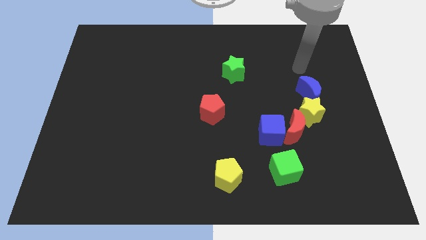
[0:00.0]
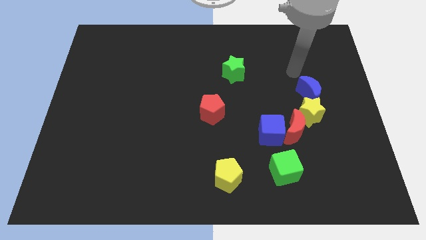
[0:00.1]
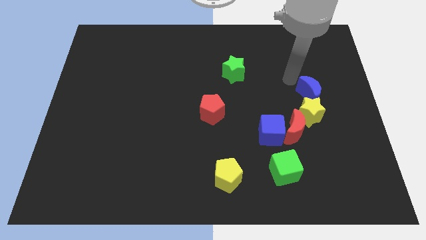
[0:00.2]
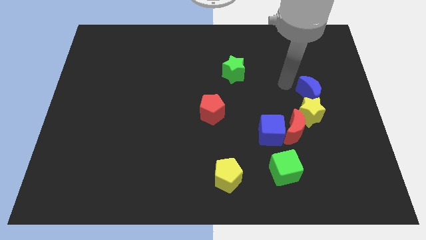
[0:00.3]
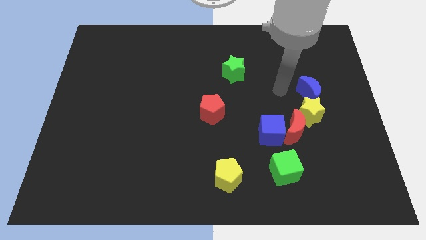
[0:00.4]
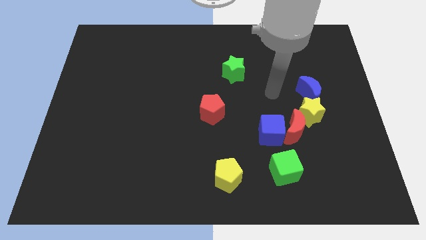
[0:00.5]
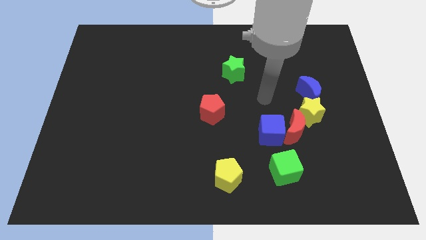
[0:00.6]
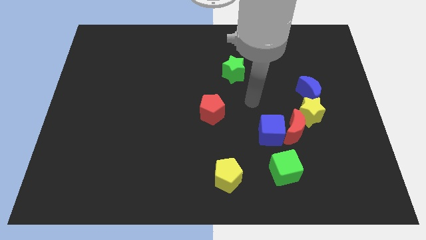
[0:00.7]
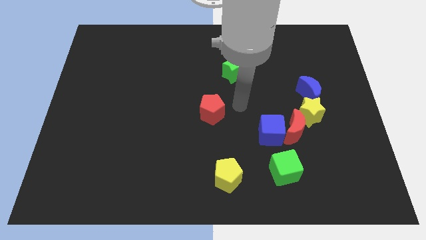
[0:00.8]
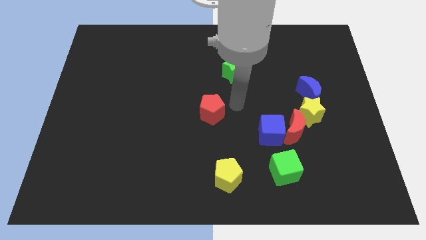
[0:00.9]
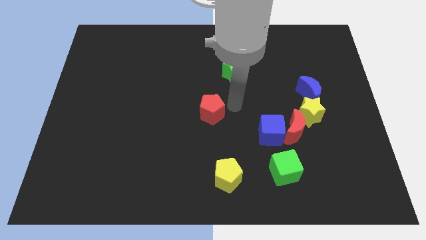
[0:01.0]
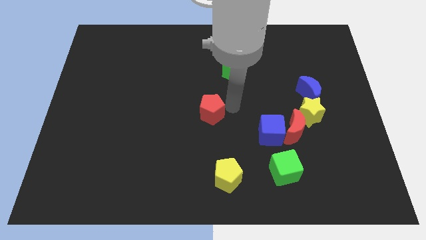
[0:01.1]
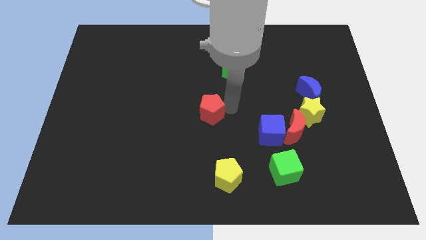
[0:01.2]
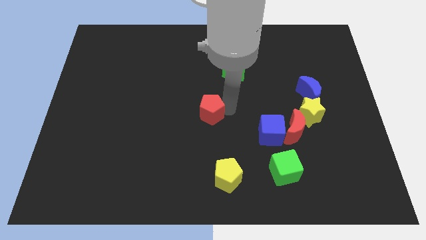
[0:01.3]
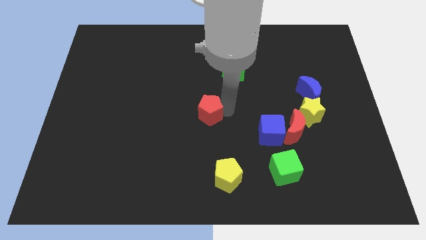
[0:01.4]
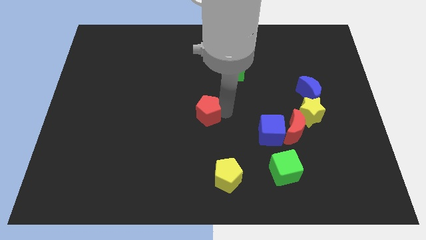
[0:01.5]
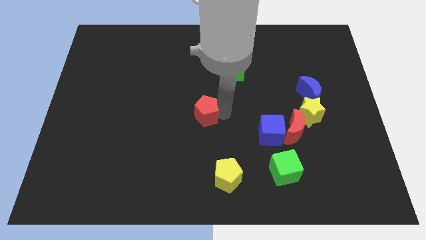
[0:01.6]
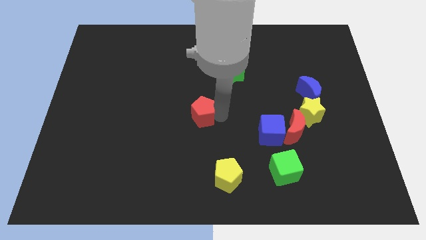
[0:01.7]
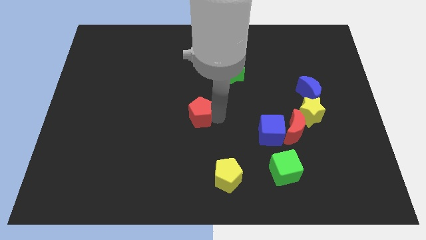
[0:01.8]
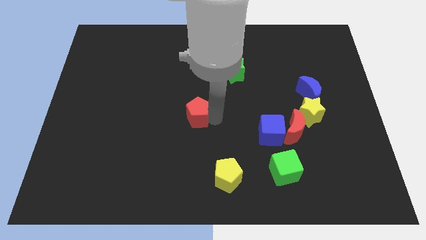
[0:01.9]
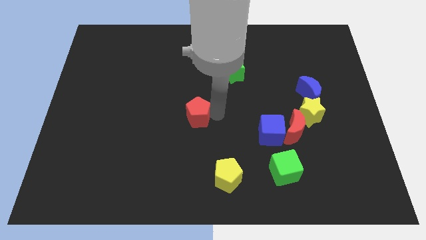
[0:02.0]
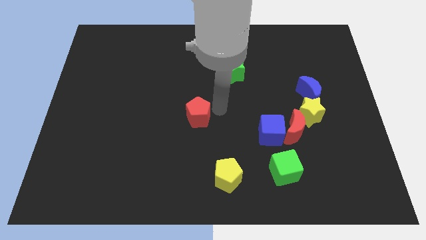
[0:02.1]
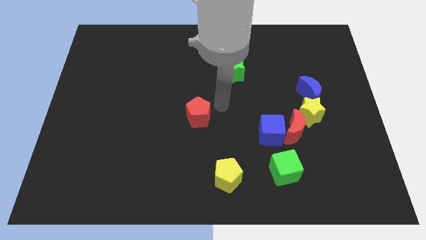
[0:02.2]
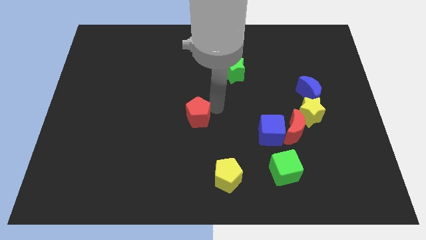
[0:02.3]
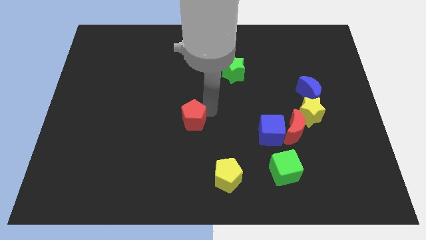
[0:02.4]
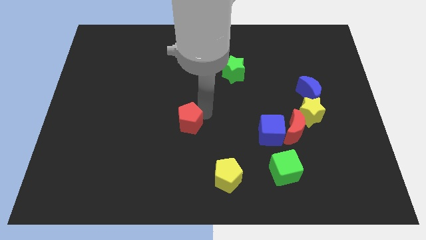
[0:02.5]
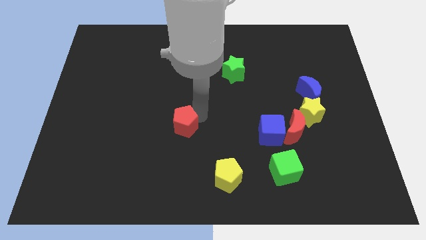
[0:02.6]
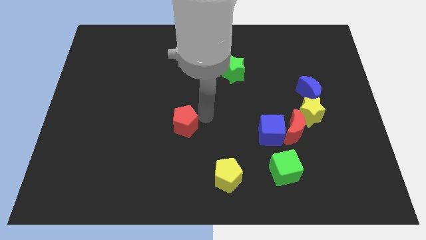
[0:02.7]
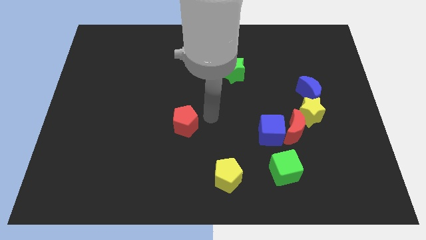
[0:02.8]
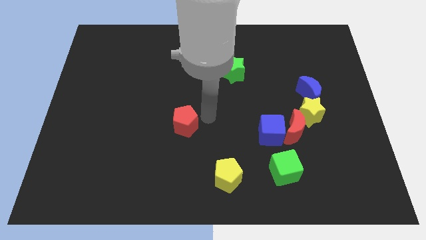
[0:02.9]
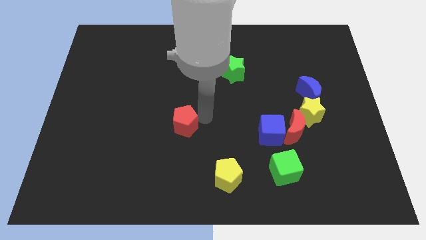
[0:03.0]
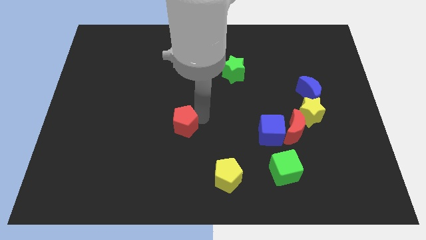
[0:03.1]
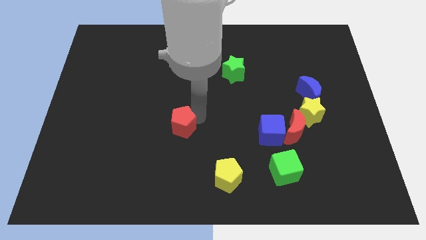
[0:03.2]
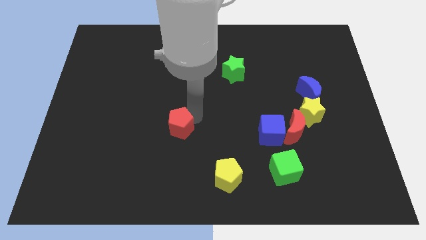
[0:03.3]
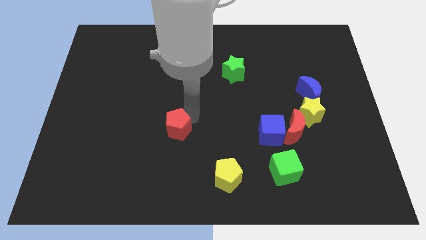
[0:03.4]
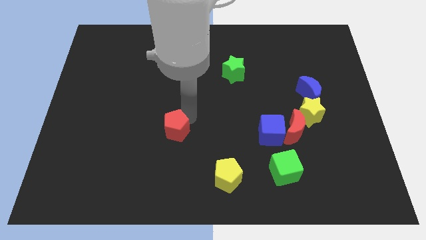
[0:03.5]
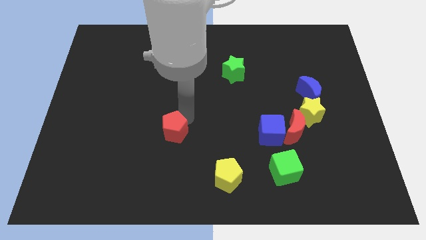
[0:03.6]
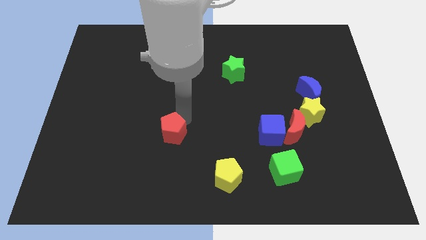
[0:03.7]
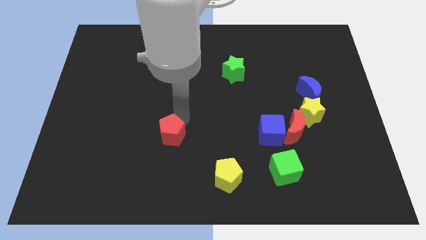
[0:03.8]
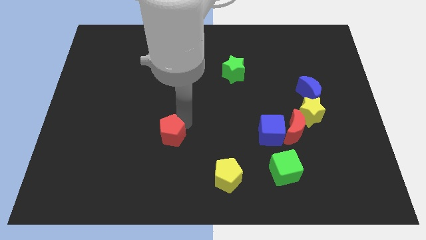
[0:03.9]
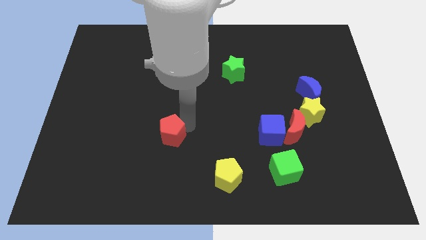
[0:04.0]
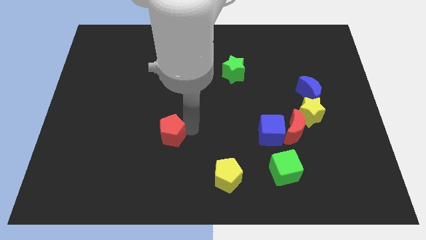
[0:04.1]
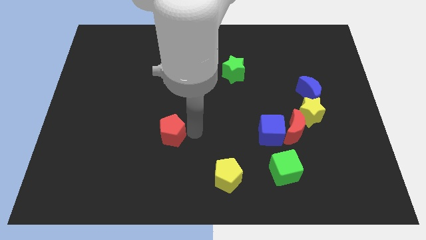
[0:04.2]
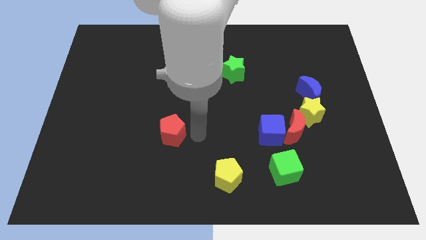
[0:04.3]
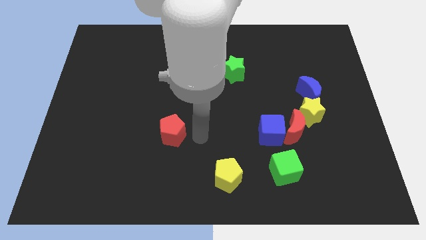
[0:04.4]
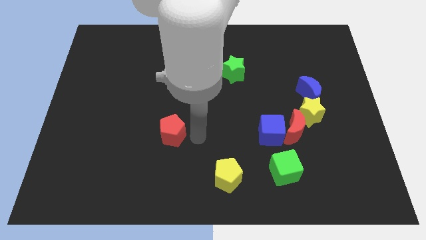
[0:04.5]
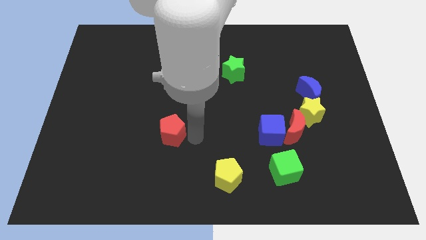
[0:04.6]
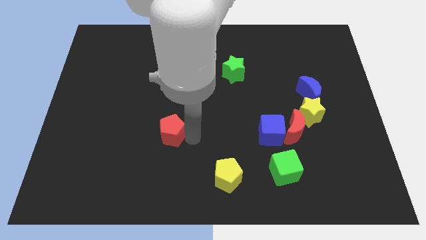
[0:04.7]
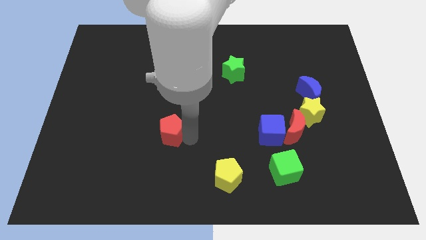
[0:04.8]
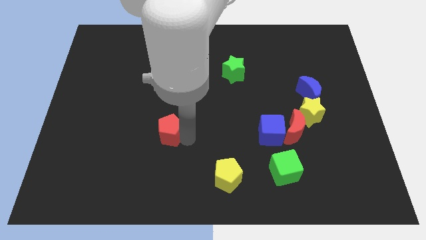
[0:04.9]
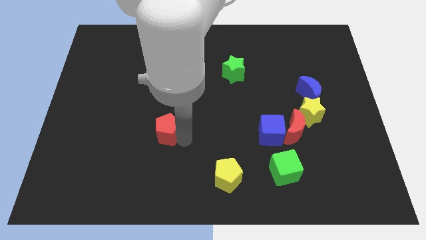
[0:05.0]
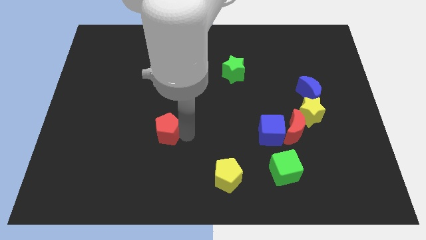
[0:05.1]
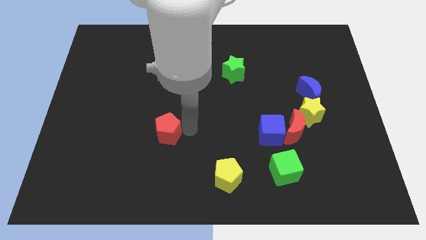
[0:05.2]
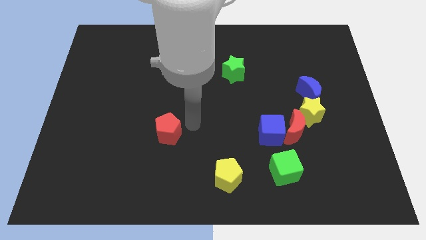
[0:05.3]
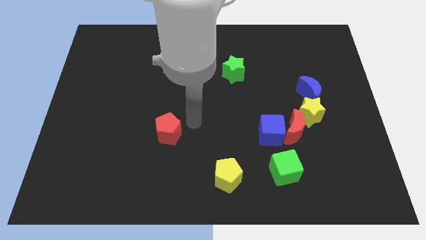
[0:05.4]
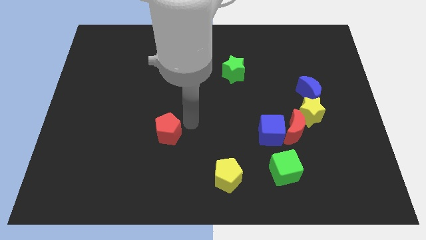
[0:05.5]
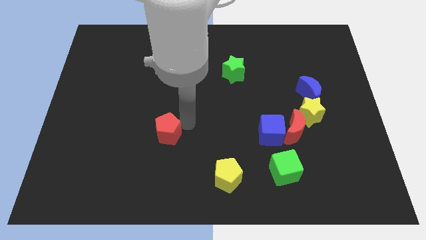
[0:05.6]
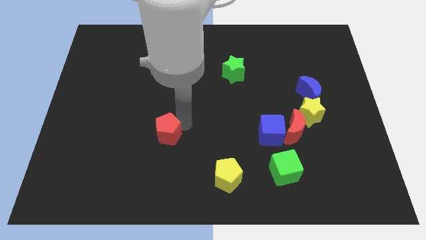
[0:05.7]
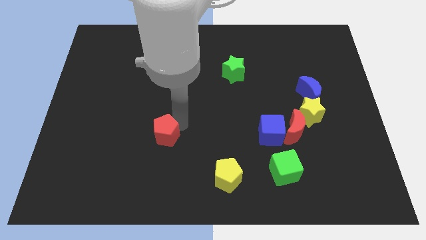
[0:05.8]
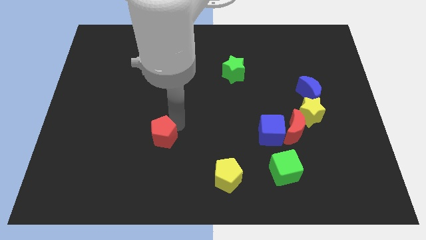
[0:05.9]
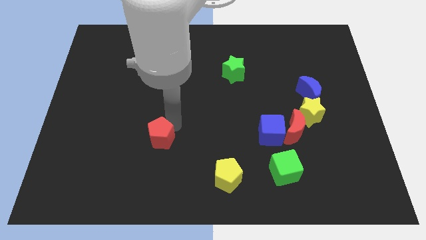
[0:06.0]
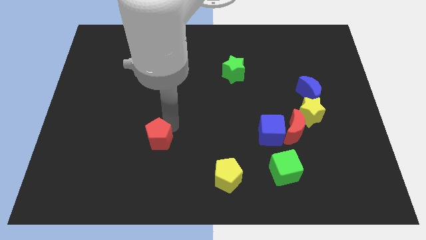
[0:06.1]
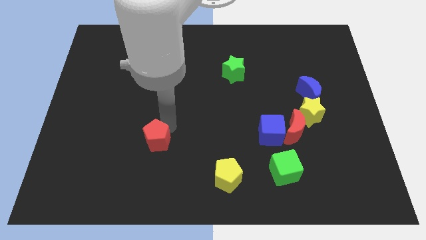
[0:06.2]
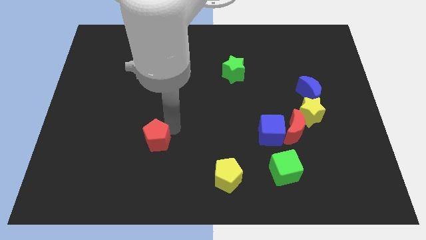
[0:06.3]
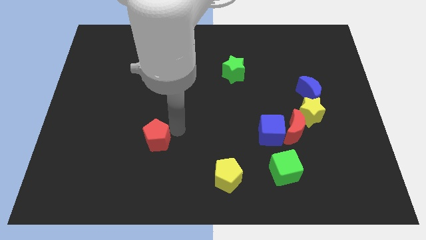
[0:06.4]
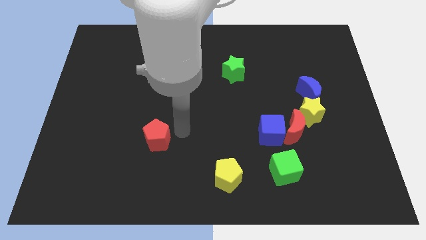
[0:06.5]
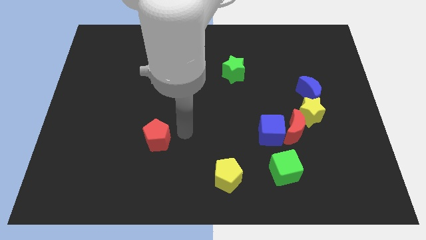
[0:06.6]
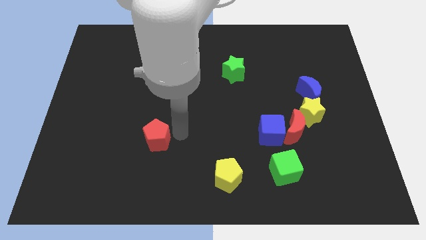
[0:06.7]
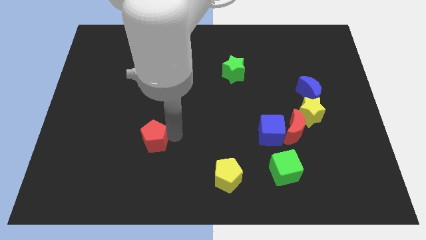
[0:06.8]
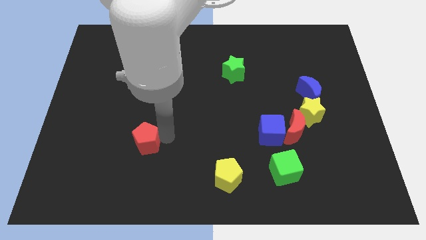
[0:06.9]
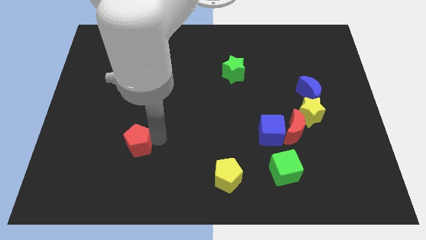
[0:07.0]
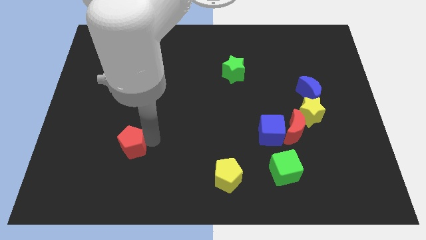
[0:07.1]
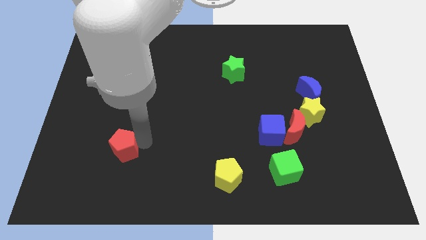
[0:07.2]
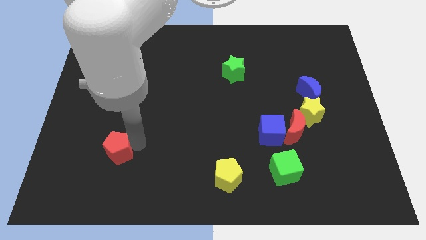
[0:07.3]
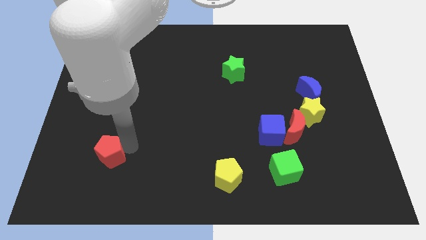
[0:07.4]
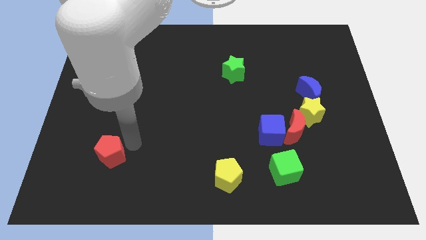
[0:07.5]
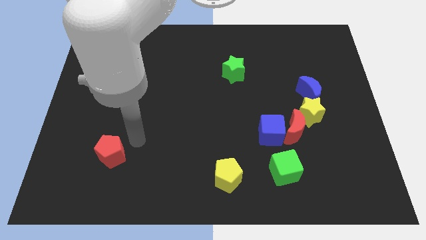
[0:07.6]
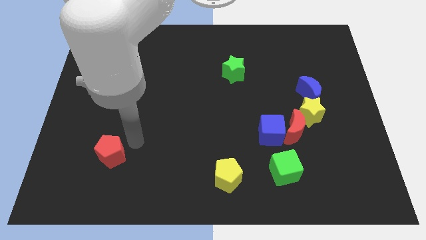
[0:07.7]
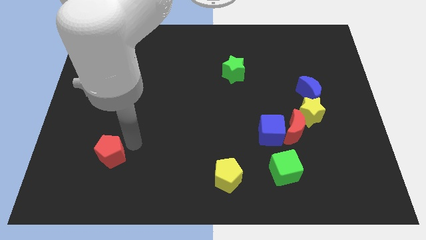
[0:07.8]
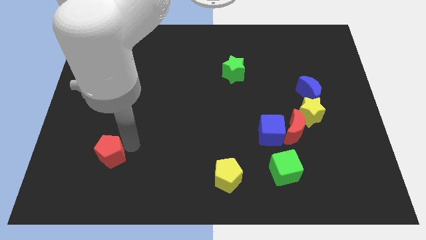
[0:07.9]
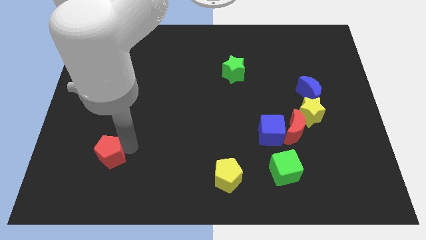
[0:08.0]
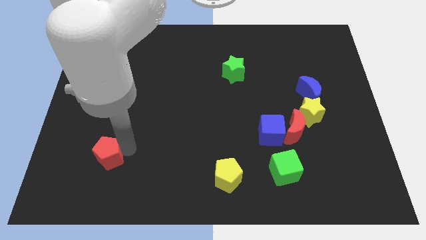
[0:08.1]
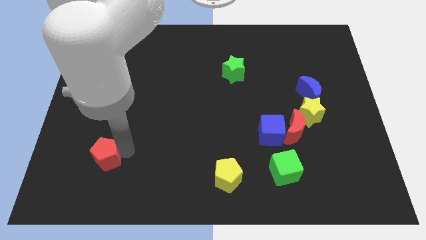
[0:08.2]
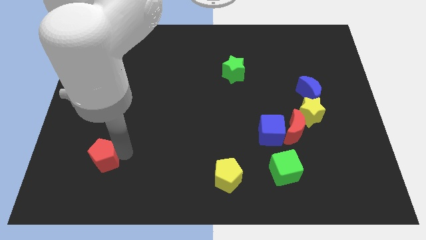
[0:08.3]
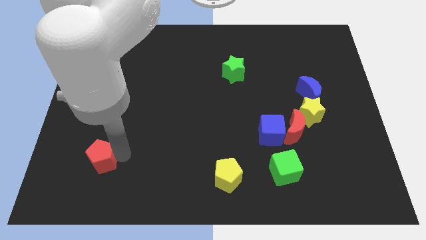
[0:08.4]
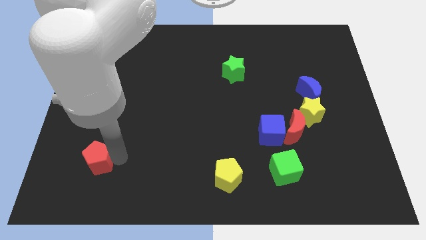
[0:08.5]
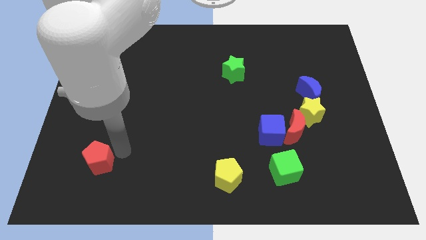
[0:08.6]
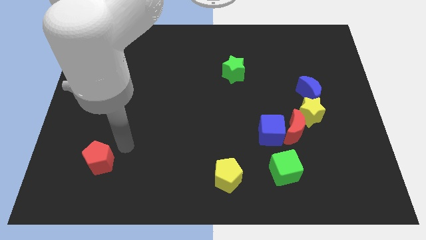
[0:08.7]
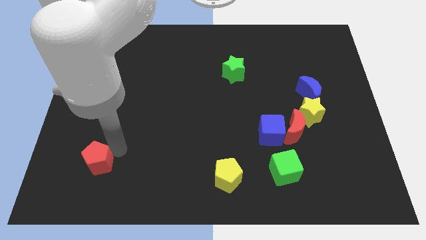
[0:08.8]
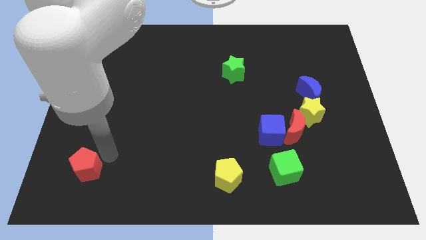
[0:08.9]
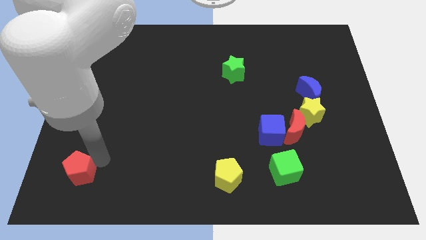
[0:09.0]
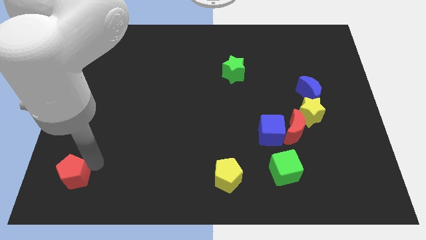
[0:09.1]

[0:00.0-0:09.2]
put the red pentagon to the lower left corner
